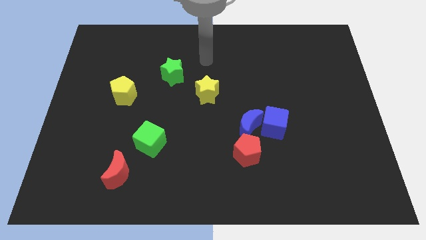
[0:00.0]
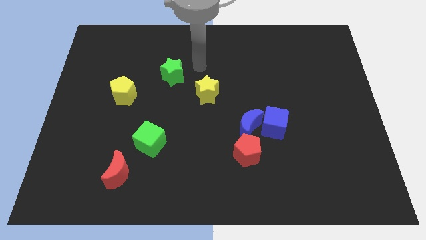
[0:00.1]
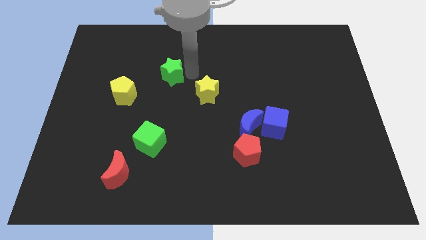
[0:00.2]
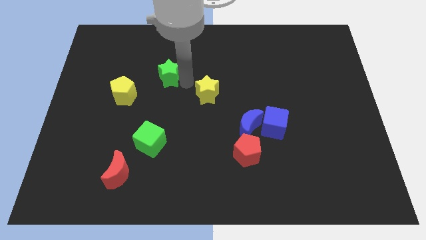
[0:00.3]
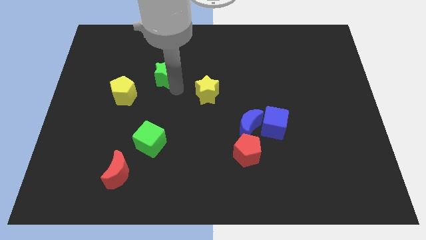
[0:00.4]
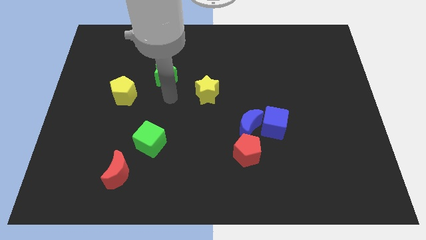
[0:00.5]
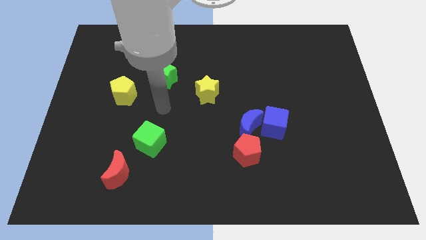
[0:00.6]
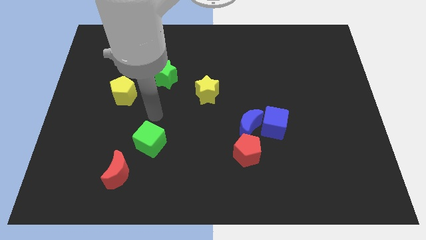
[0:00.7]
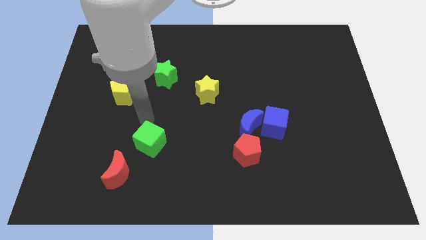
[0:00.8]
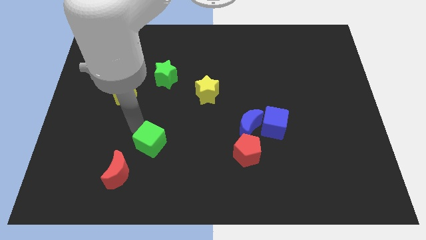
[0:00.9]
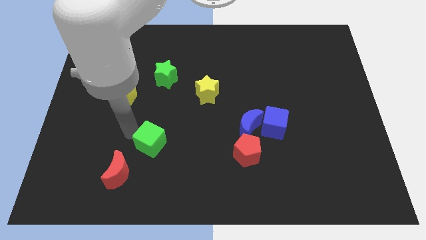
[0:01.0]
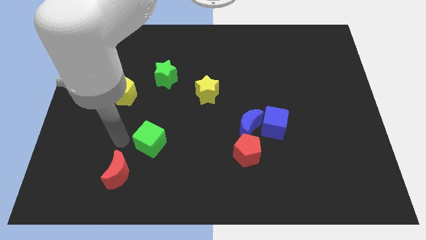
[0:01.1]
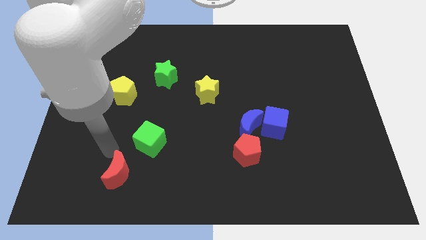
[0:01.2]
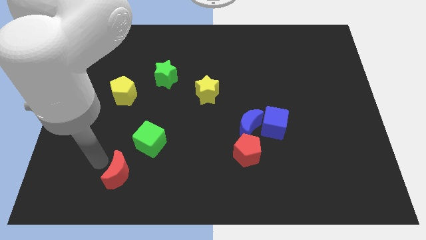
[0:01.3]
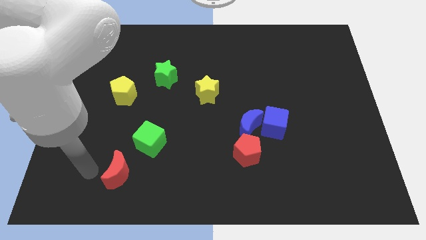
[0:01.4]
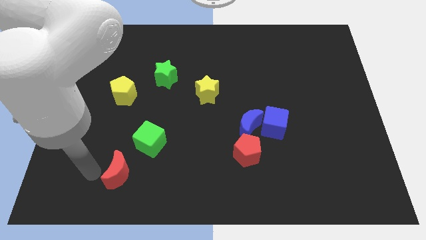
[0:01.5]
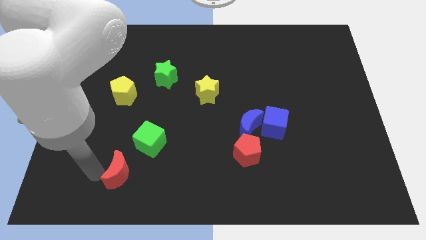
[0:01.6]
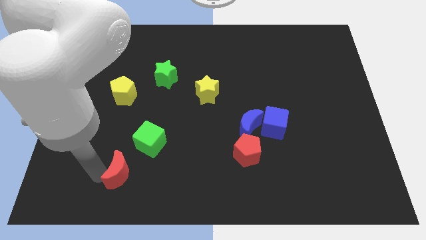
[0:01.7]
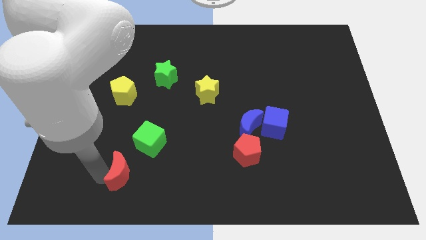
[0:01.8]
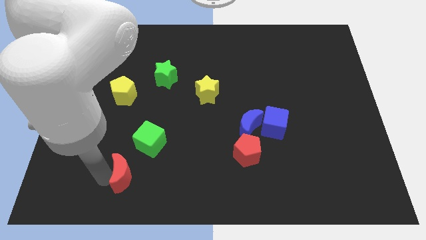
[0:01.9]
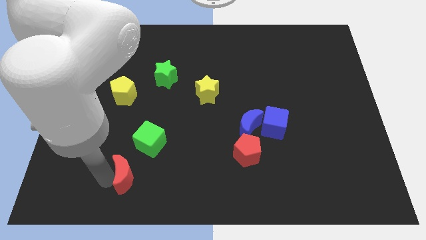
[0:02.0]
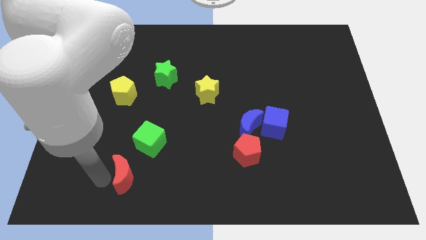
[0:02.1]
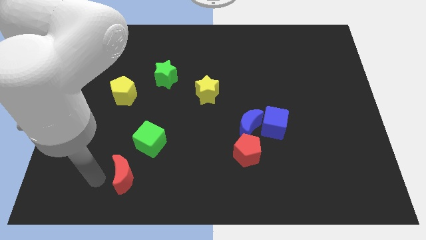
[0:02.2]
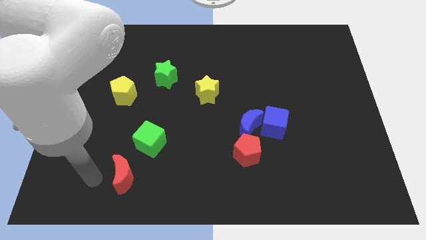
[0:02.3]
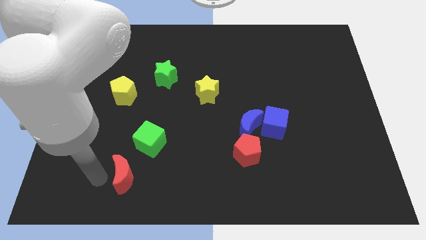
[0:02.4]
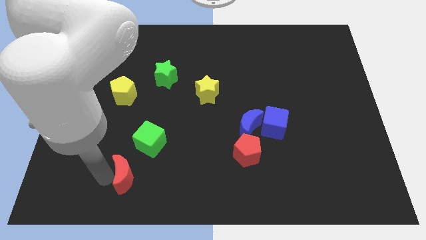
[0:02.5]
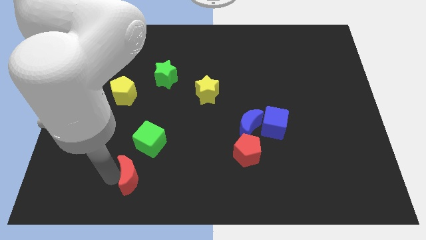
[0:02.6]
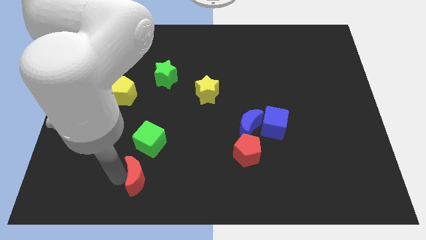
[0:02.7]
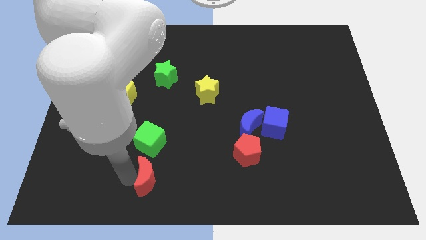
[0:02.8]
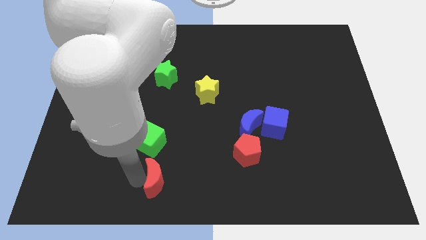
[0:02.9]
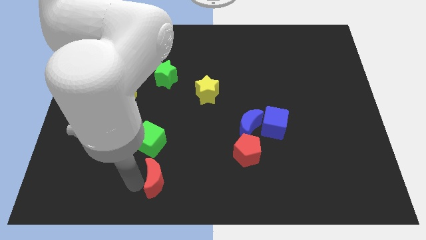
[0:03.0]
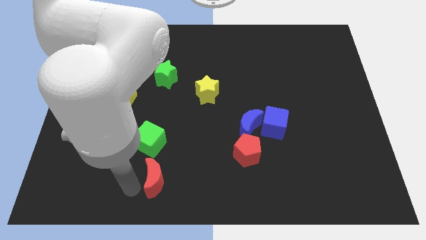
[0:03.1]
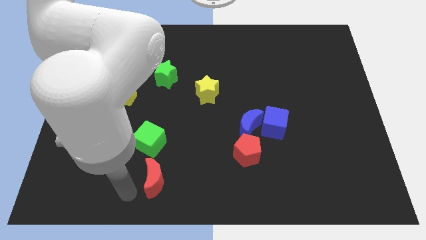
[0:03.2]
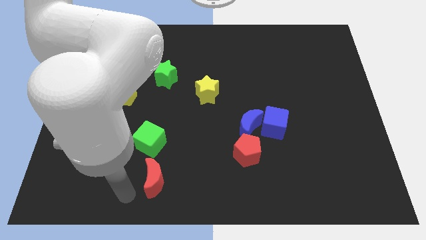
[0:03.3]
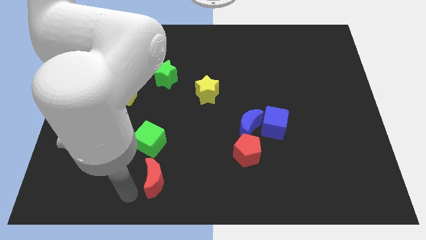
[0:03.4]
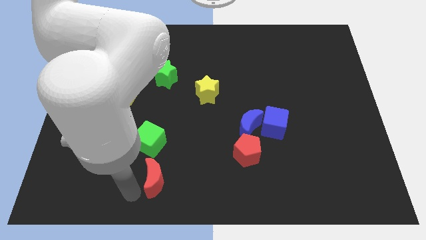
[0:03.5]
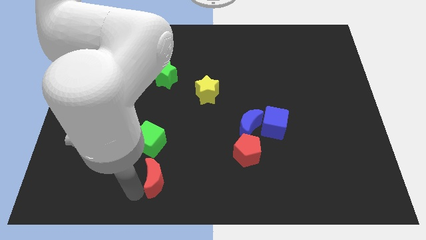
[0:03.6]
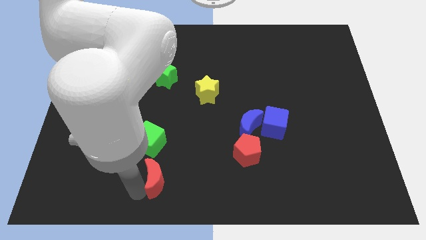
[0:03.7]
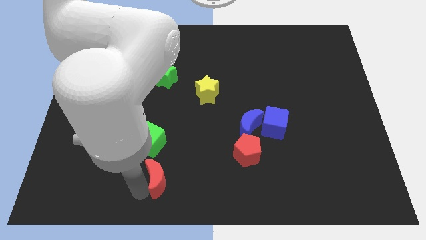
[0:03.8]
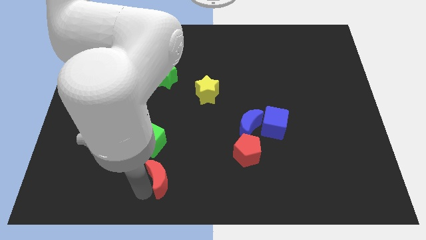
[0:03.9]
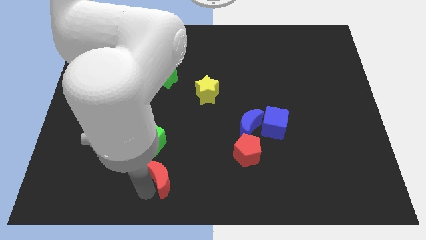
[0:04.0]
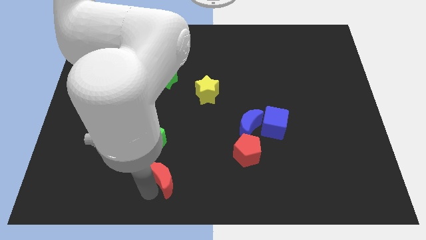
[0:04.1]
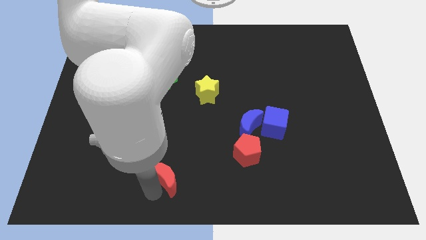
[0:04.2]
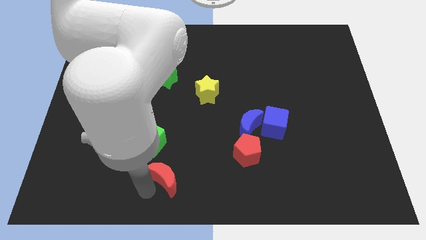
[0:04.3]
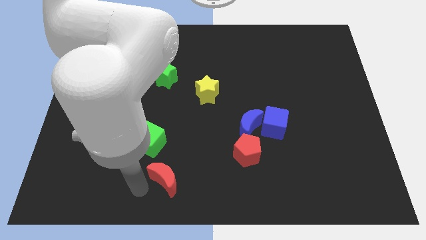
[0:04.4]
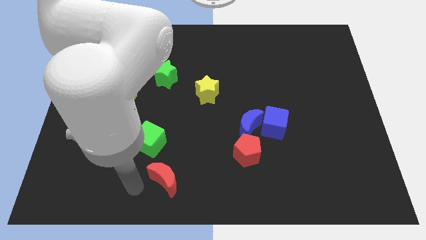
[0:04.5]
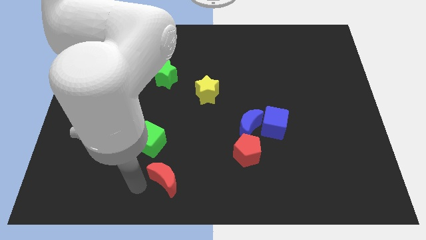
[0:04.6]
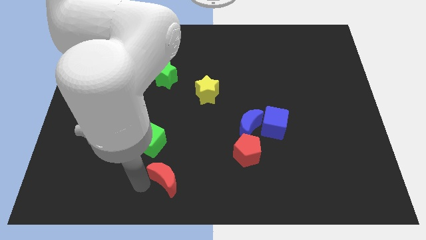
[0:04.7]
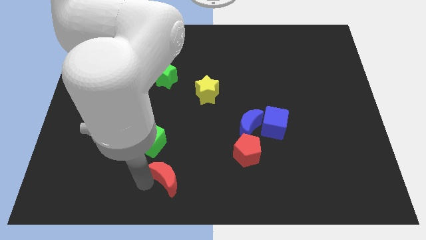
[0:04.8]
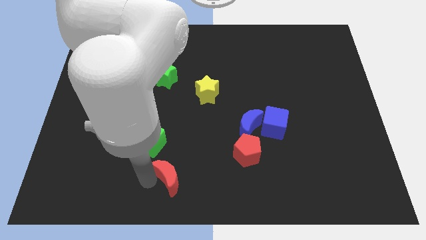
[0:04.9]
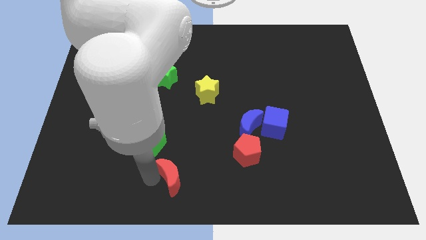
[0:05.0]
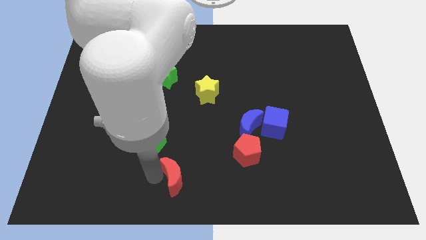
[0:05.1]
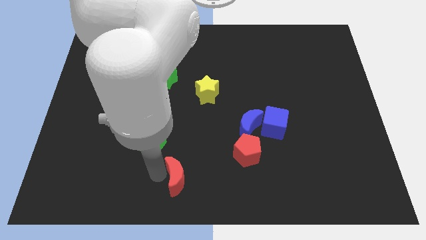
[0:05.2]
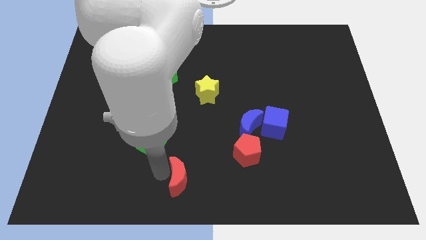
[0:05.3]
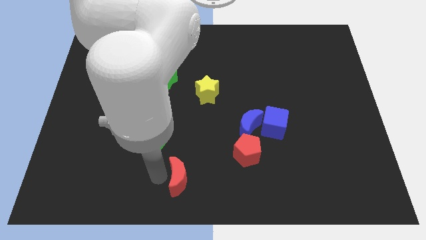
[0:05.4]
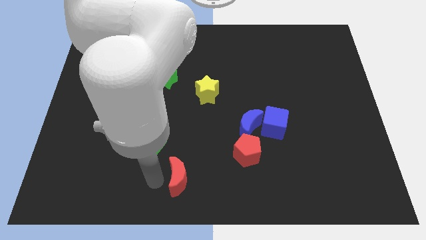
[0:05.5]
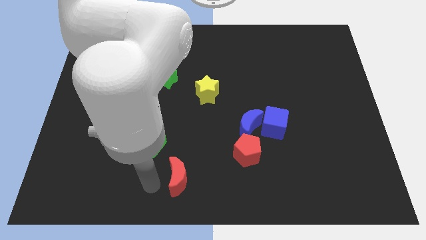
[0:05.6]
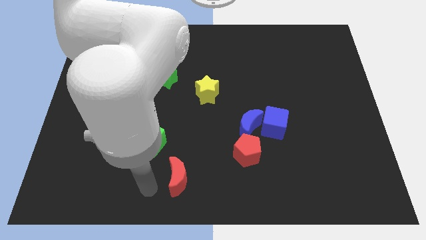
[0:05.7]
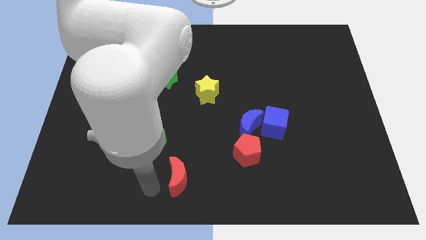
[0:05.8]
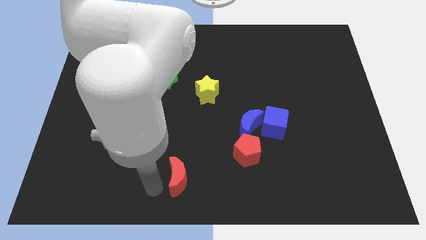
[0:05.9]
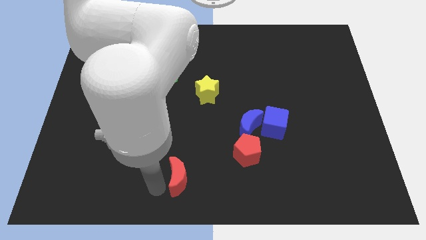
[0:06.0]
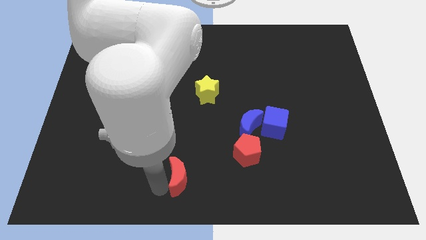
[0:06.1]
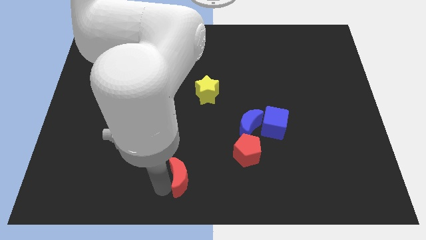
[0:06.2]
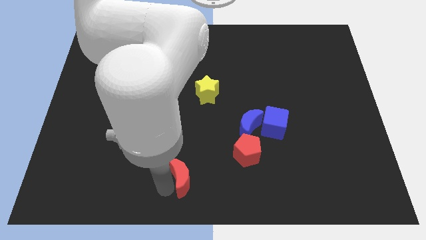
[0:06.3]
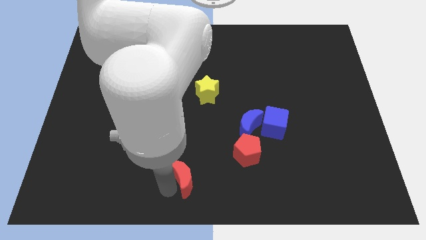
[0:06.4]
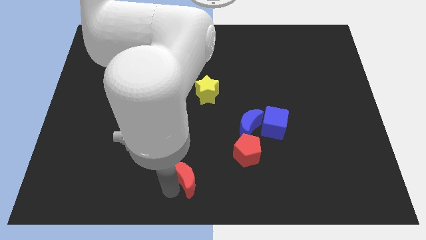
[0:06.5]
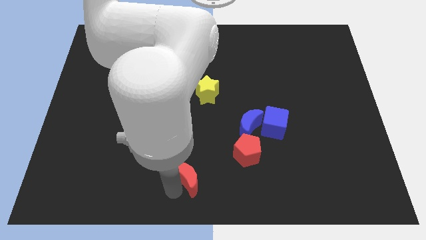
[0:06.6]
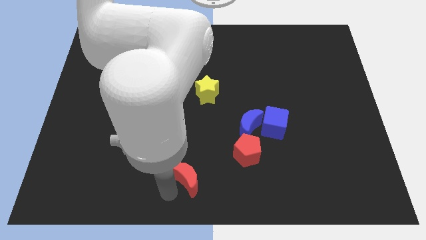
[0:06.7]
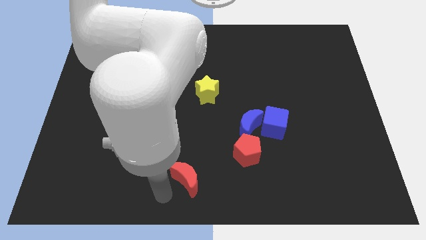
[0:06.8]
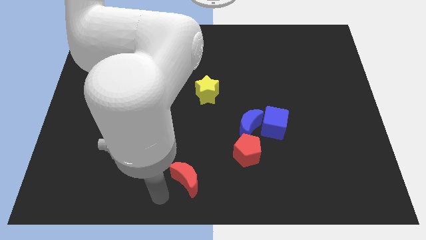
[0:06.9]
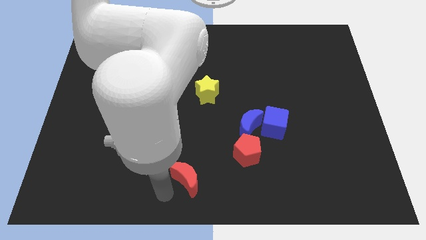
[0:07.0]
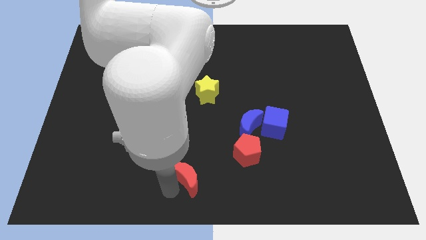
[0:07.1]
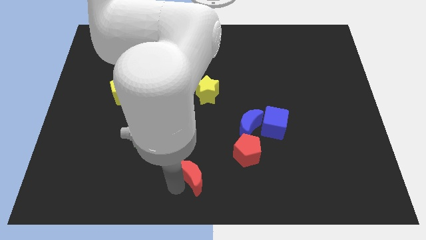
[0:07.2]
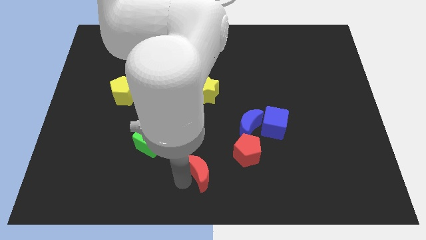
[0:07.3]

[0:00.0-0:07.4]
push the red moon diagonally down and to the left of the red pentagon
